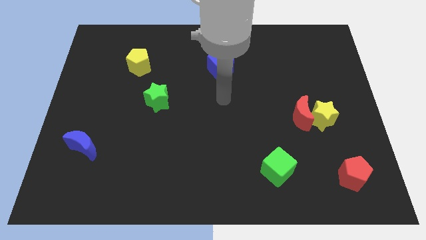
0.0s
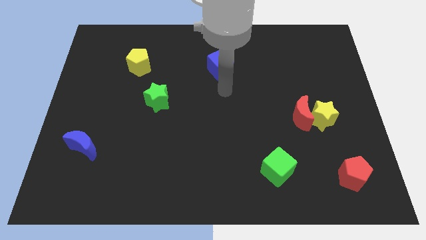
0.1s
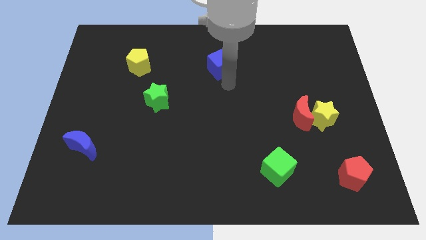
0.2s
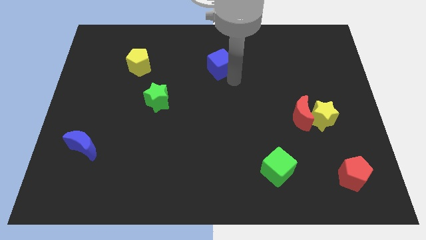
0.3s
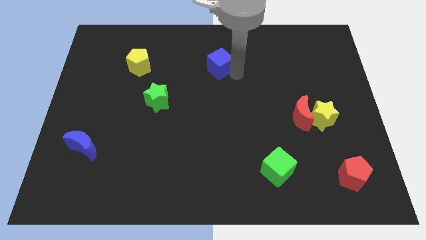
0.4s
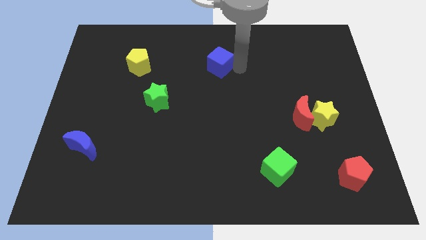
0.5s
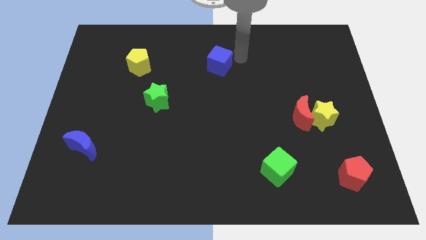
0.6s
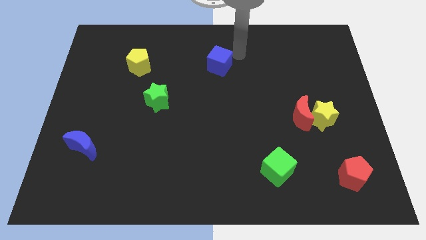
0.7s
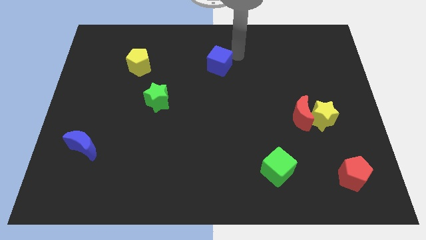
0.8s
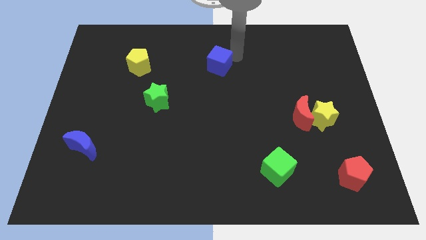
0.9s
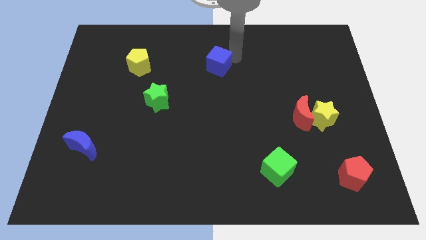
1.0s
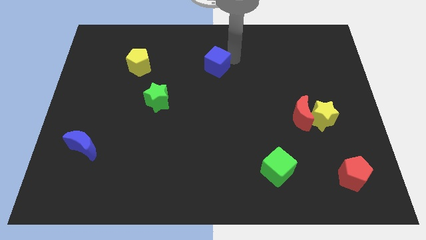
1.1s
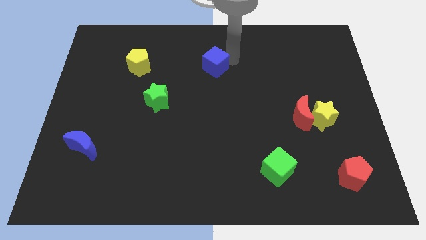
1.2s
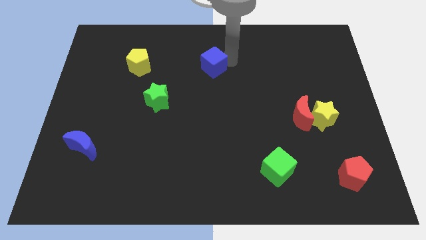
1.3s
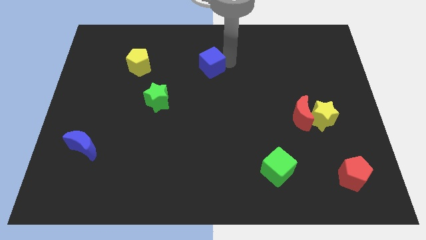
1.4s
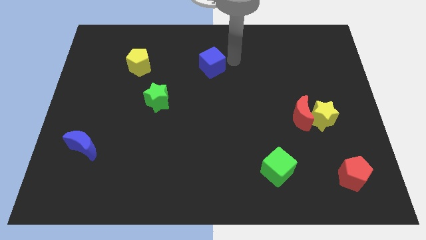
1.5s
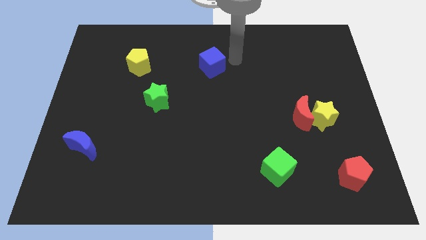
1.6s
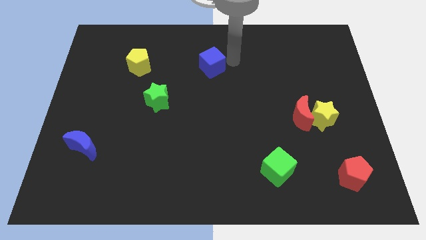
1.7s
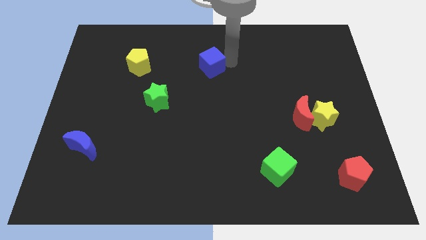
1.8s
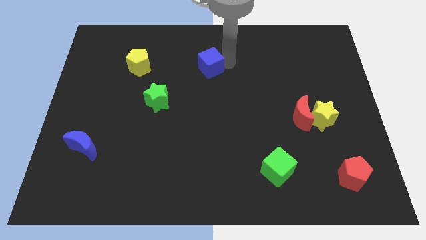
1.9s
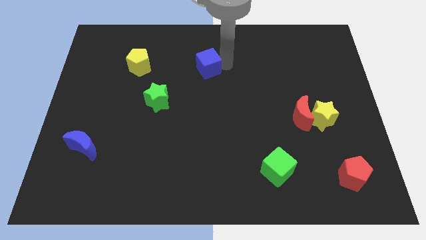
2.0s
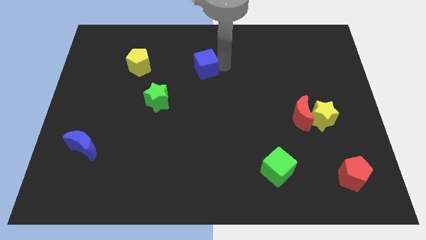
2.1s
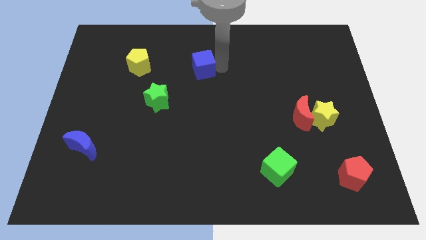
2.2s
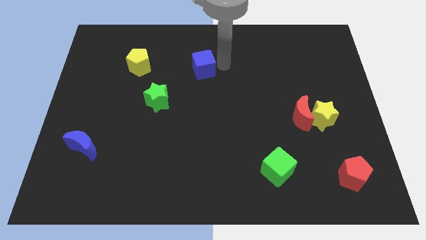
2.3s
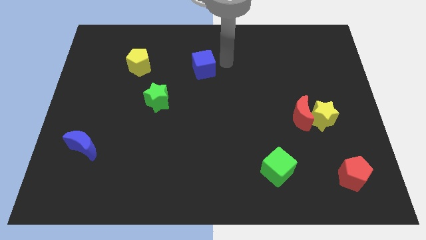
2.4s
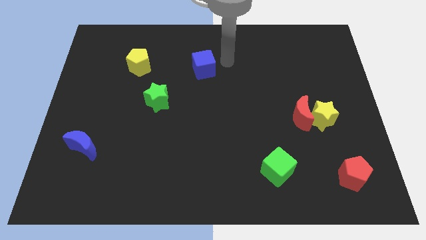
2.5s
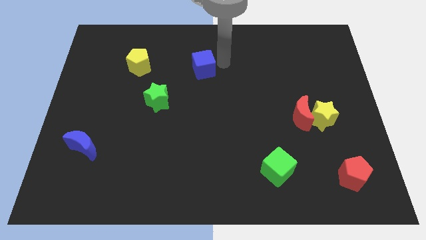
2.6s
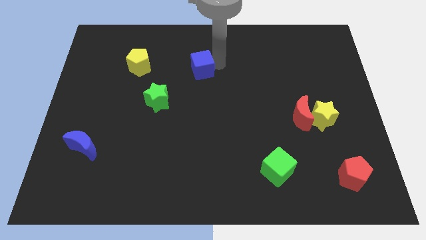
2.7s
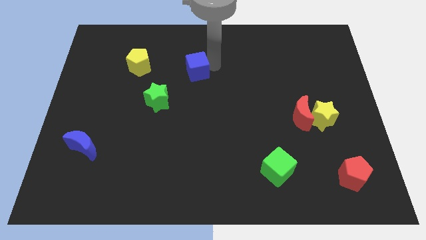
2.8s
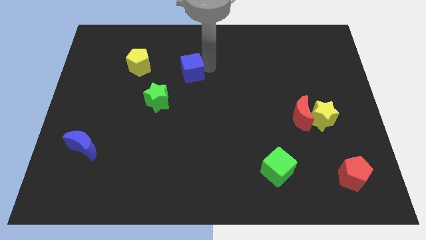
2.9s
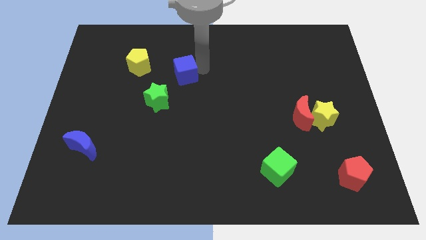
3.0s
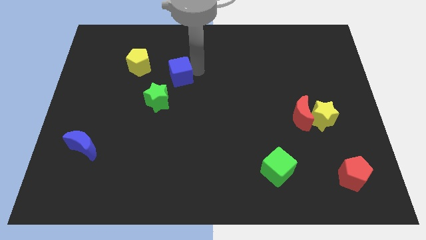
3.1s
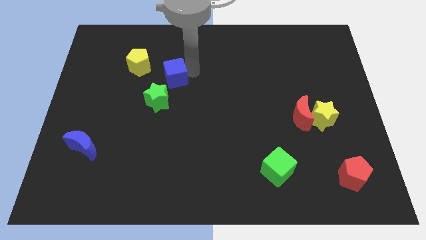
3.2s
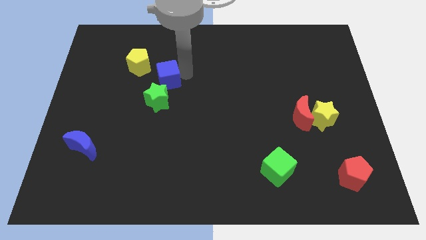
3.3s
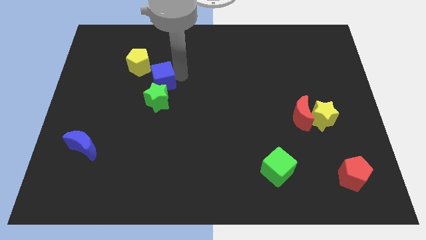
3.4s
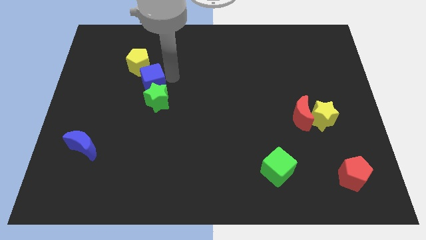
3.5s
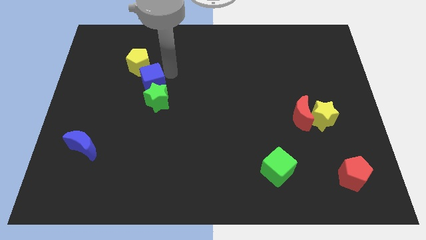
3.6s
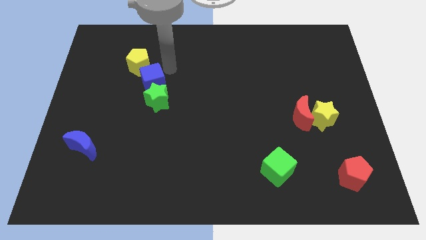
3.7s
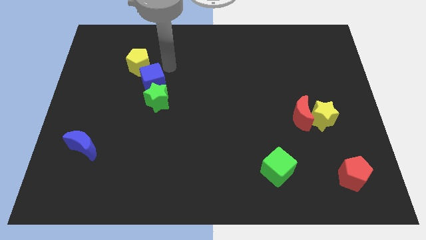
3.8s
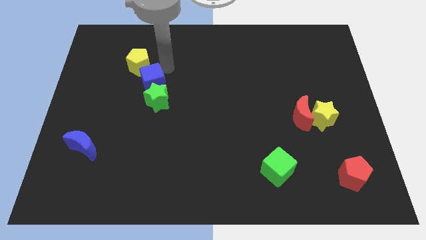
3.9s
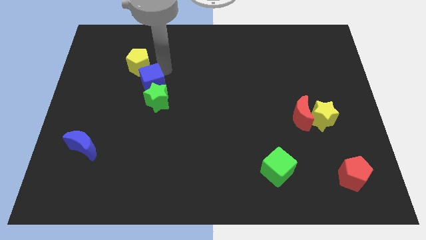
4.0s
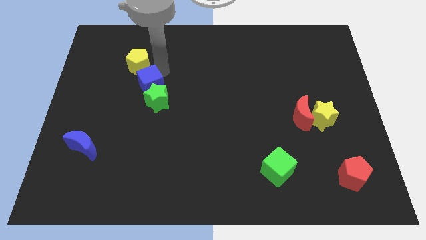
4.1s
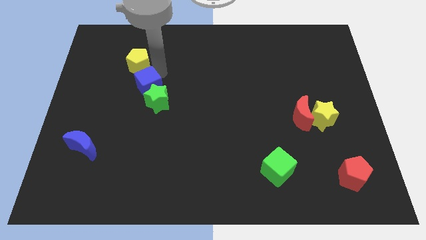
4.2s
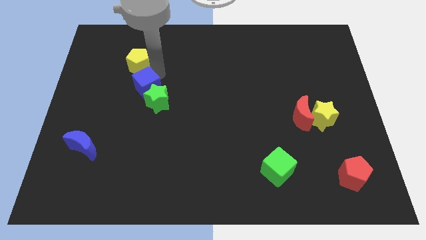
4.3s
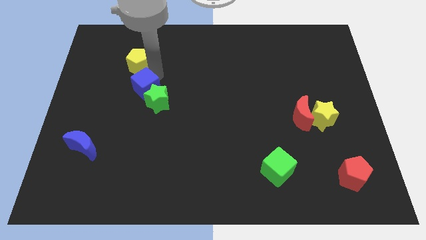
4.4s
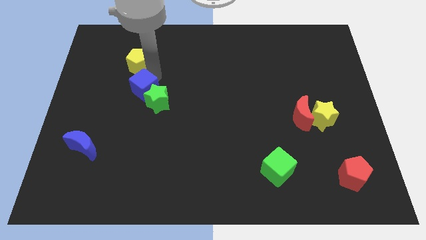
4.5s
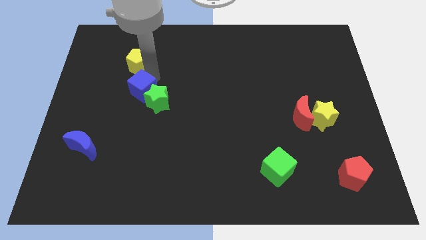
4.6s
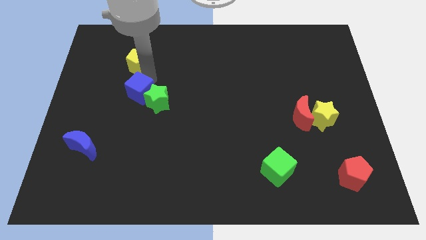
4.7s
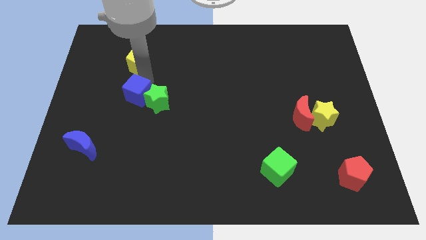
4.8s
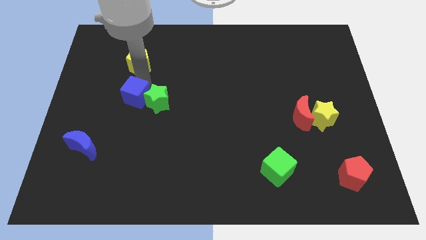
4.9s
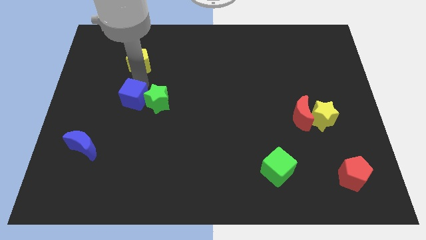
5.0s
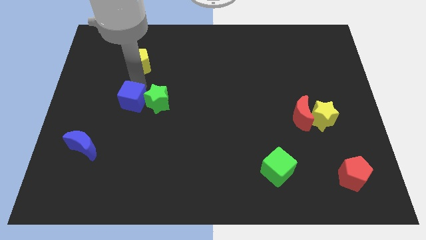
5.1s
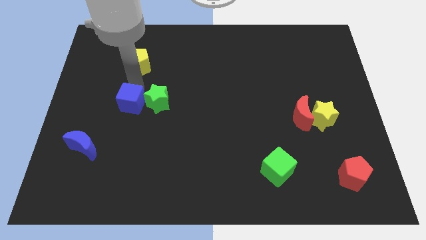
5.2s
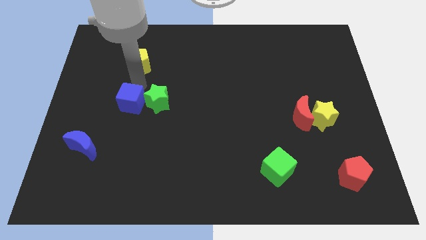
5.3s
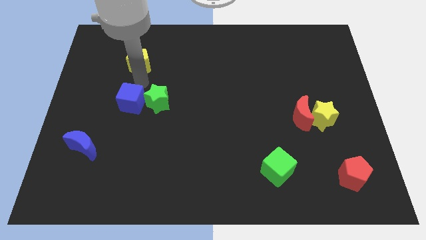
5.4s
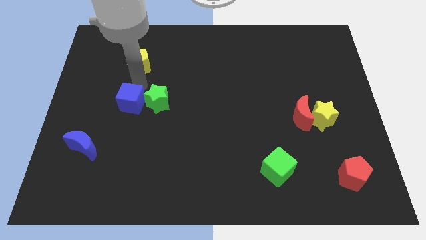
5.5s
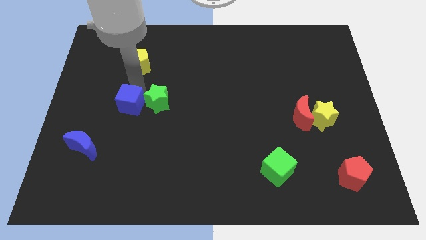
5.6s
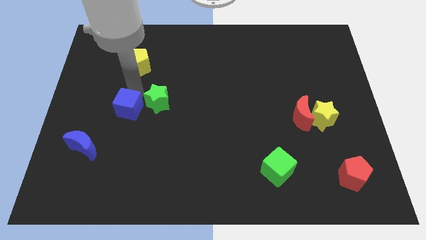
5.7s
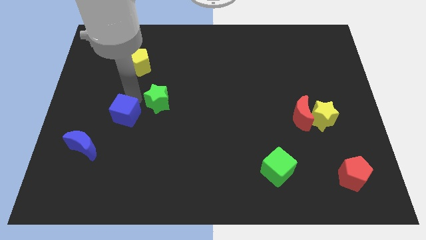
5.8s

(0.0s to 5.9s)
move the blue cube to the top right side of the blue moon
